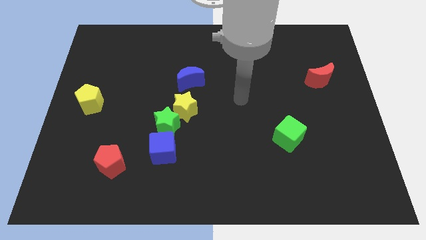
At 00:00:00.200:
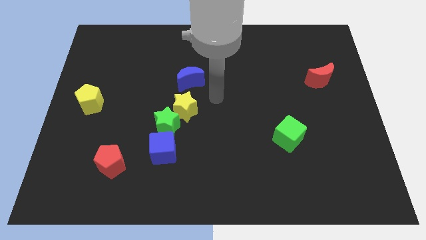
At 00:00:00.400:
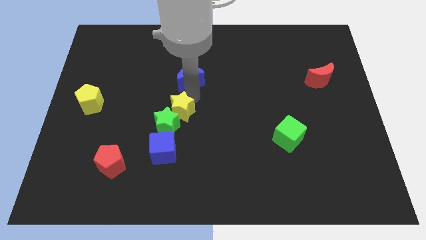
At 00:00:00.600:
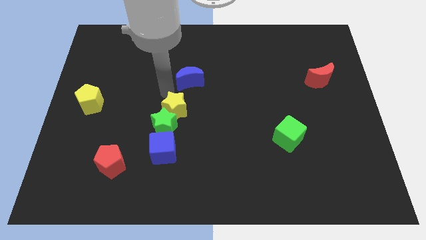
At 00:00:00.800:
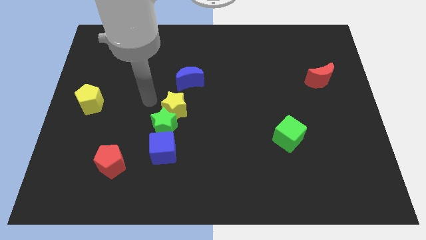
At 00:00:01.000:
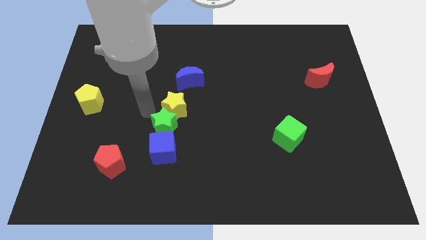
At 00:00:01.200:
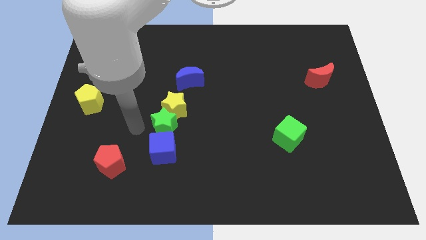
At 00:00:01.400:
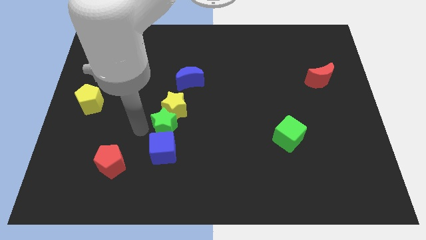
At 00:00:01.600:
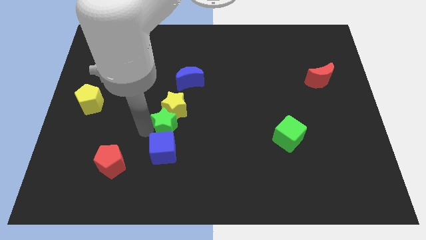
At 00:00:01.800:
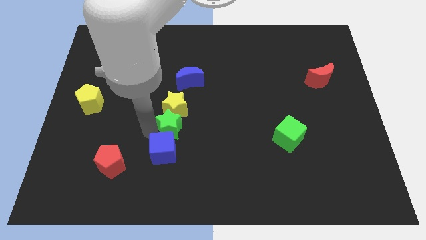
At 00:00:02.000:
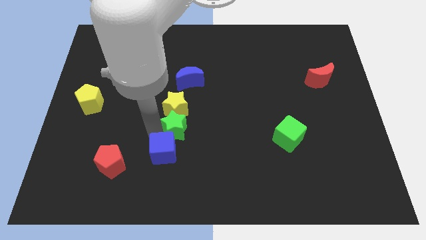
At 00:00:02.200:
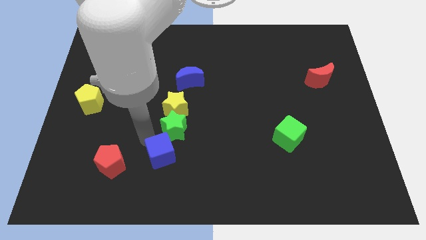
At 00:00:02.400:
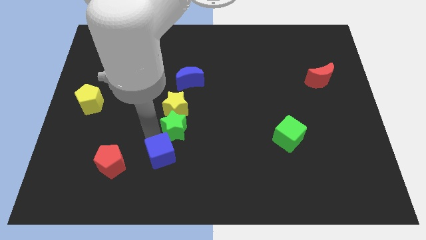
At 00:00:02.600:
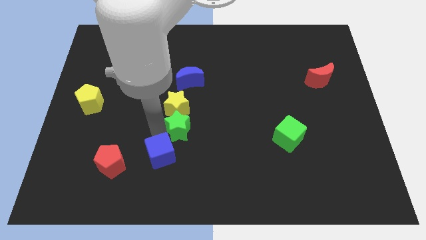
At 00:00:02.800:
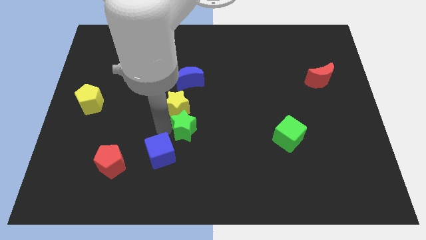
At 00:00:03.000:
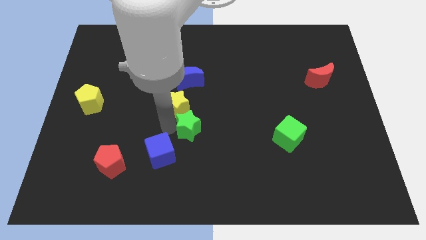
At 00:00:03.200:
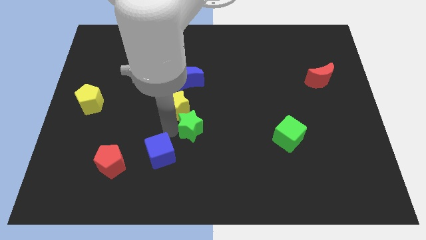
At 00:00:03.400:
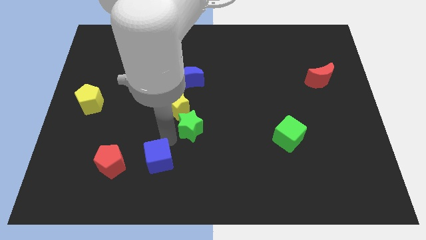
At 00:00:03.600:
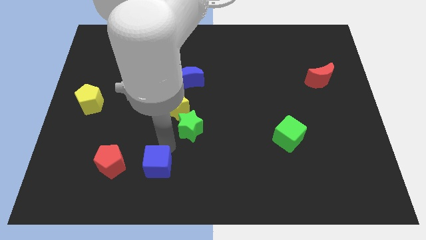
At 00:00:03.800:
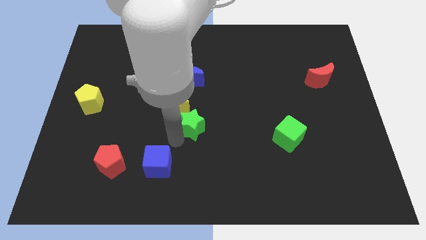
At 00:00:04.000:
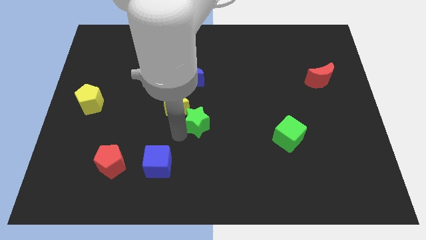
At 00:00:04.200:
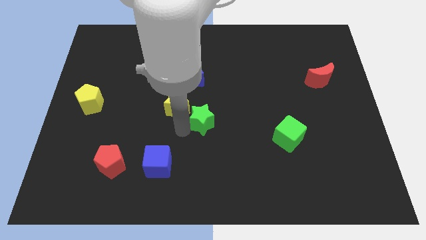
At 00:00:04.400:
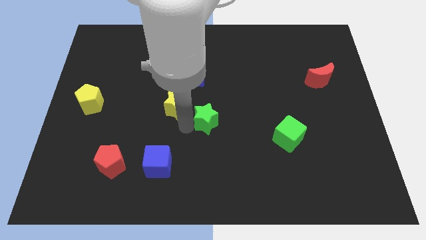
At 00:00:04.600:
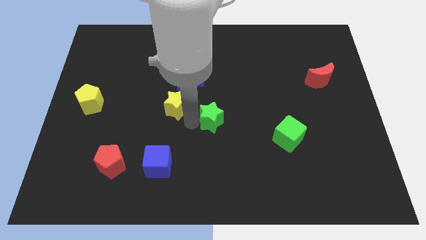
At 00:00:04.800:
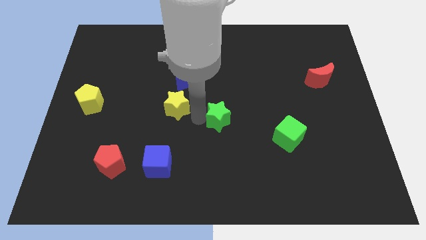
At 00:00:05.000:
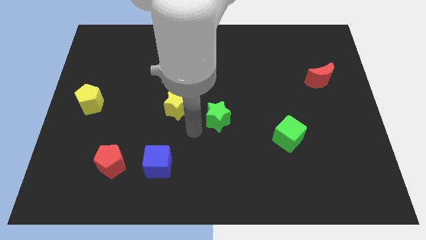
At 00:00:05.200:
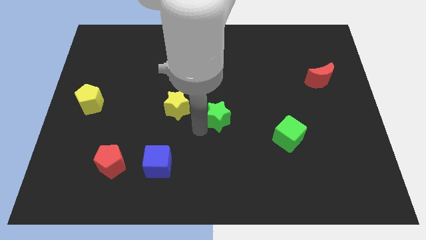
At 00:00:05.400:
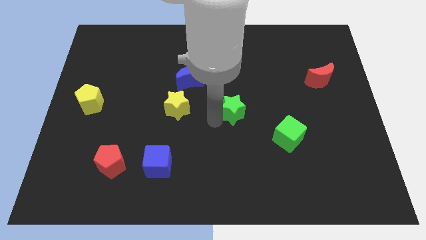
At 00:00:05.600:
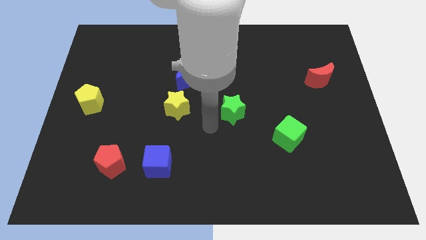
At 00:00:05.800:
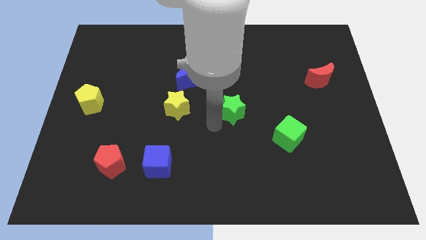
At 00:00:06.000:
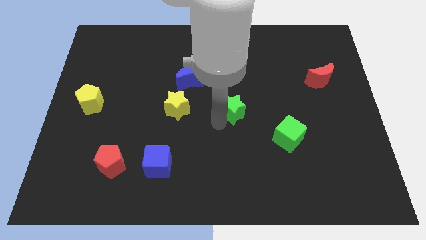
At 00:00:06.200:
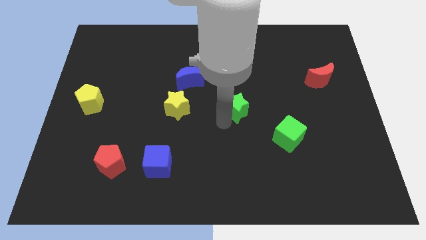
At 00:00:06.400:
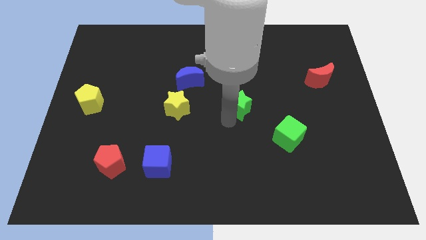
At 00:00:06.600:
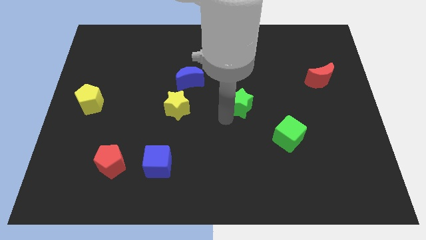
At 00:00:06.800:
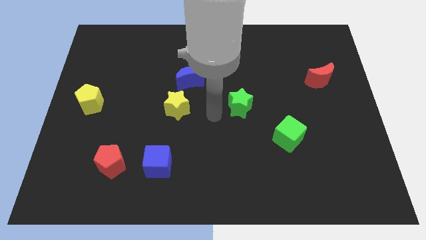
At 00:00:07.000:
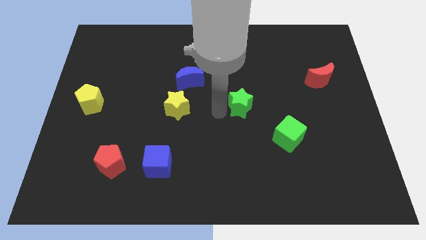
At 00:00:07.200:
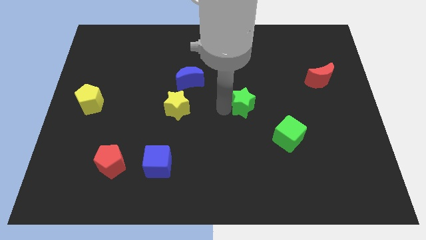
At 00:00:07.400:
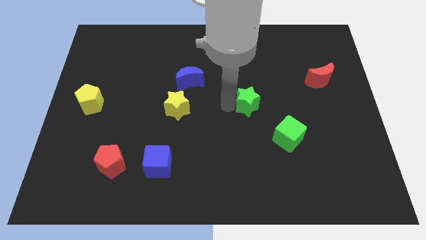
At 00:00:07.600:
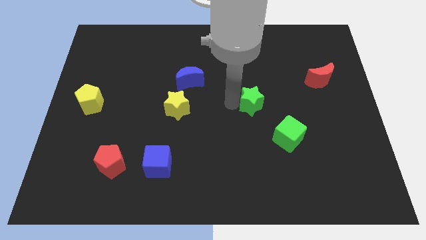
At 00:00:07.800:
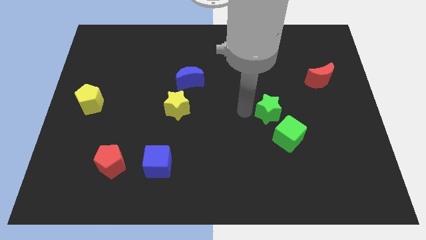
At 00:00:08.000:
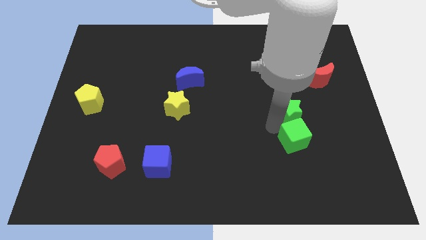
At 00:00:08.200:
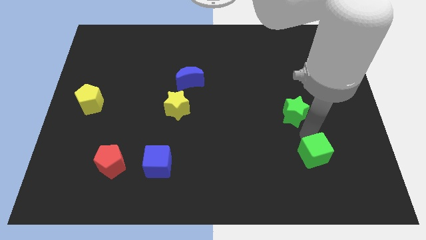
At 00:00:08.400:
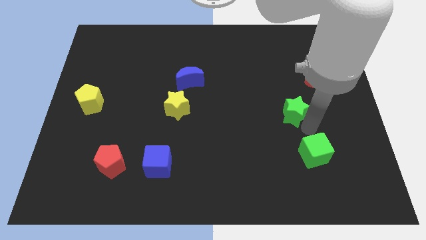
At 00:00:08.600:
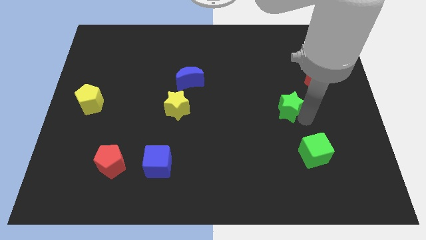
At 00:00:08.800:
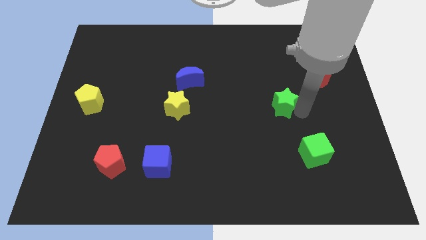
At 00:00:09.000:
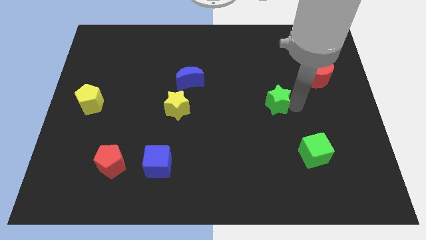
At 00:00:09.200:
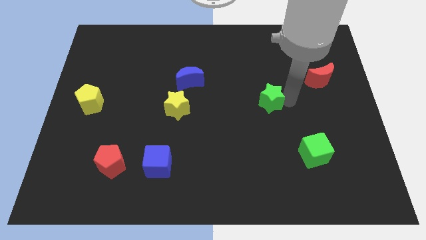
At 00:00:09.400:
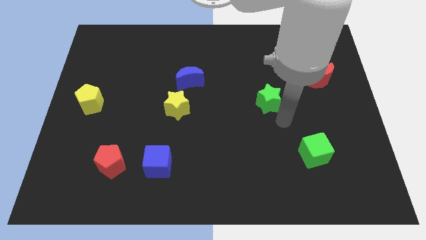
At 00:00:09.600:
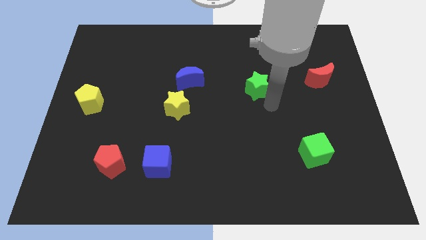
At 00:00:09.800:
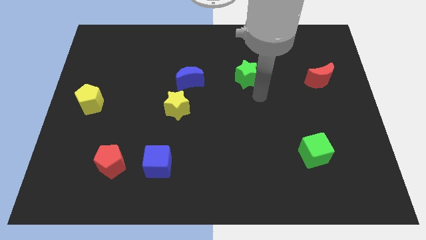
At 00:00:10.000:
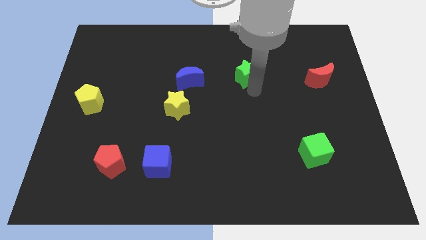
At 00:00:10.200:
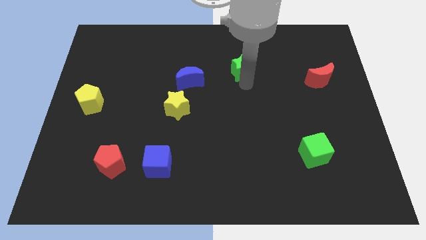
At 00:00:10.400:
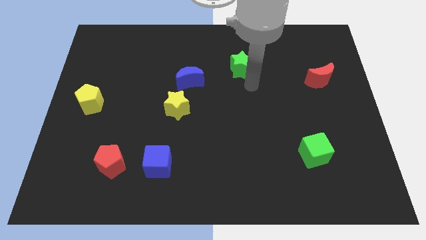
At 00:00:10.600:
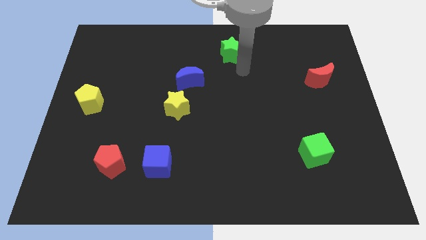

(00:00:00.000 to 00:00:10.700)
push the green star to the towards your base

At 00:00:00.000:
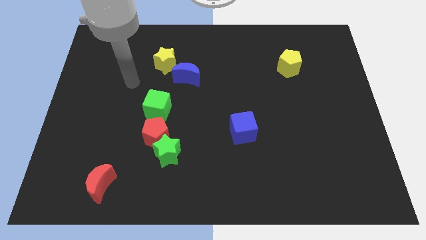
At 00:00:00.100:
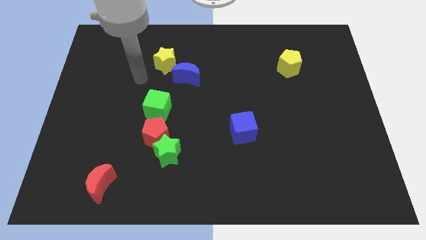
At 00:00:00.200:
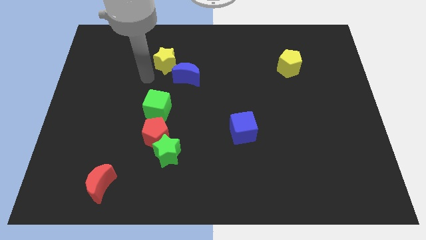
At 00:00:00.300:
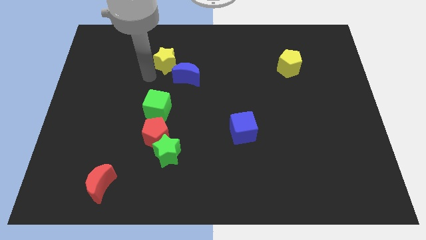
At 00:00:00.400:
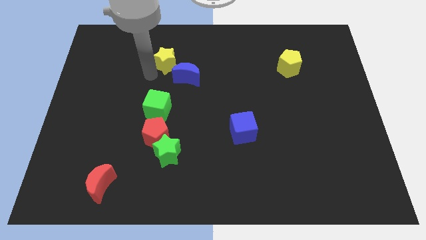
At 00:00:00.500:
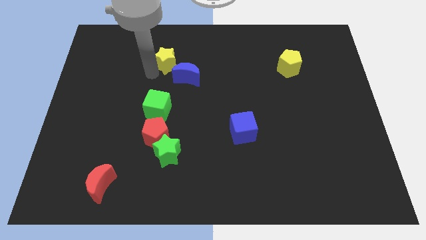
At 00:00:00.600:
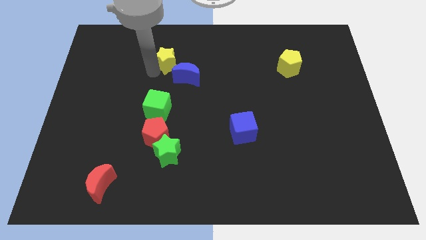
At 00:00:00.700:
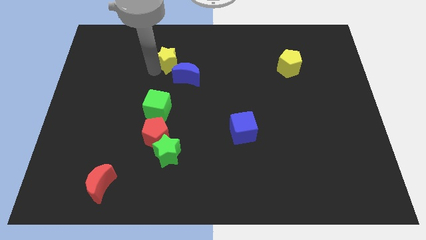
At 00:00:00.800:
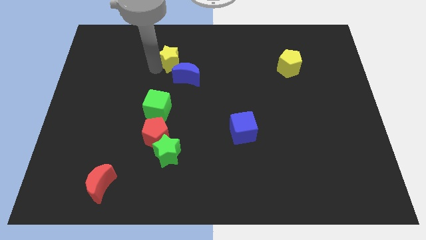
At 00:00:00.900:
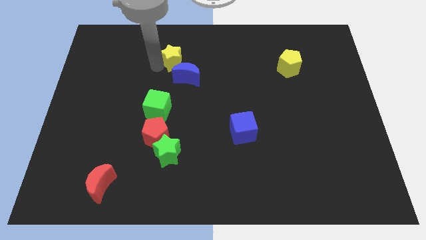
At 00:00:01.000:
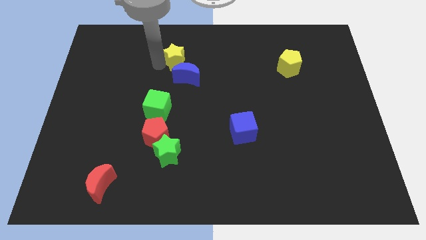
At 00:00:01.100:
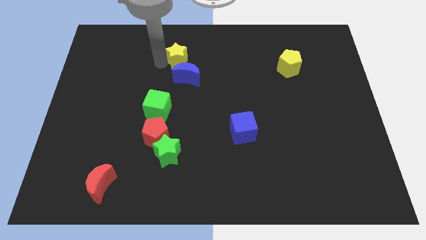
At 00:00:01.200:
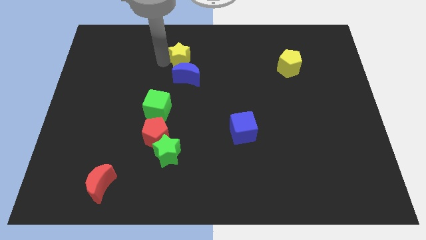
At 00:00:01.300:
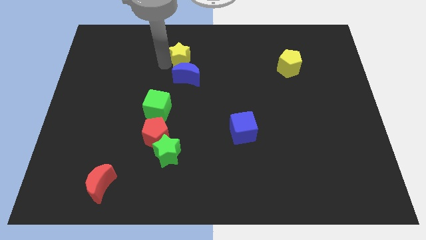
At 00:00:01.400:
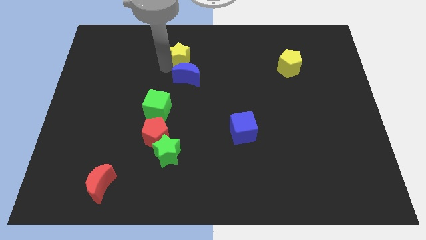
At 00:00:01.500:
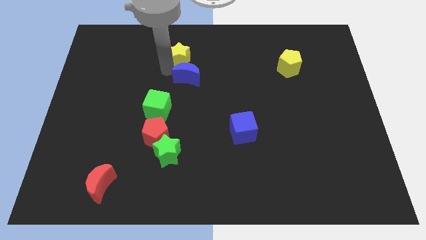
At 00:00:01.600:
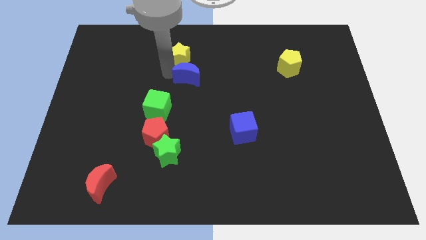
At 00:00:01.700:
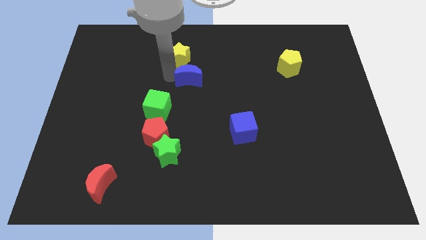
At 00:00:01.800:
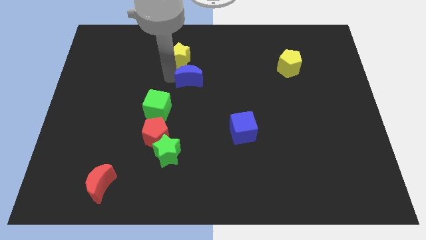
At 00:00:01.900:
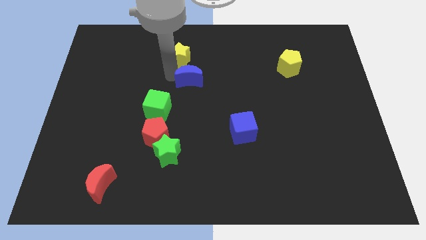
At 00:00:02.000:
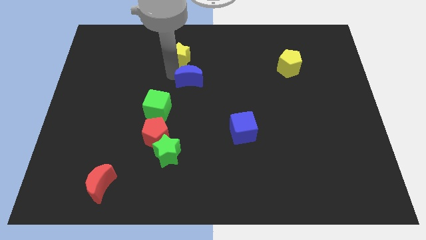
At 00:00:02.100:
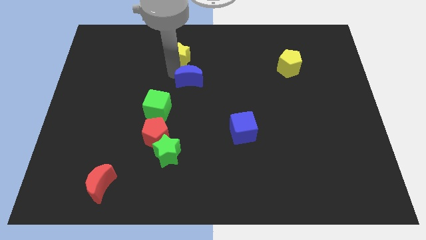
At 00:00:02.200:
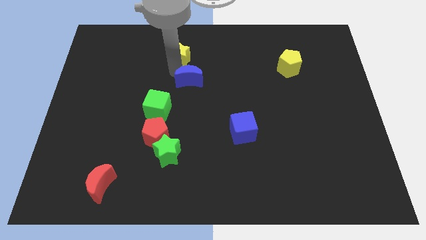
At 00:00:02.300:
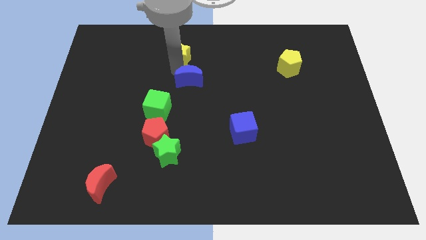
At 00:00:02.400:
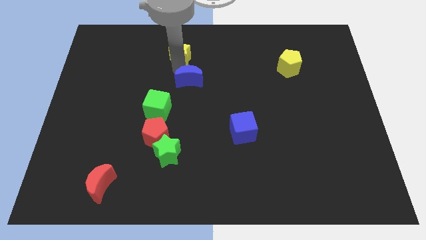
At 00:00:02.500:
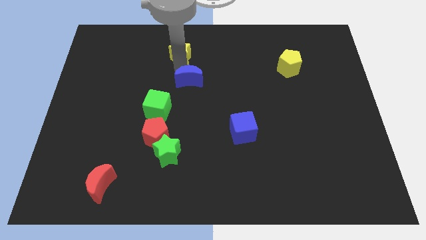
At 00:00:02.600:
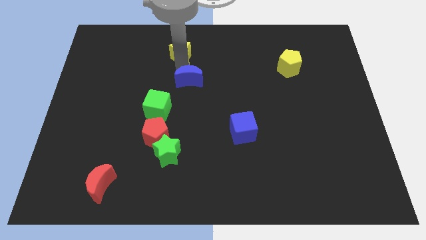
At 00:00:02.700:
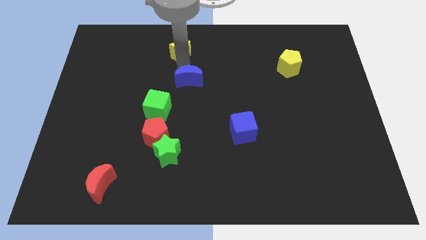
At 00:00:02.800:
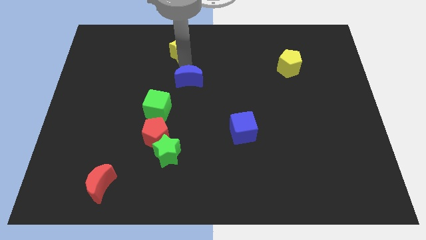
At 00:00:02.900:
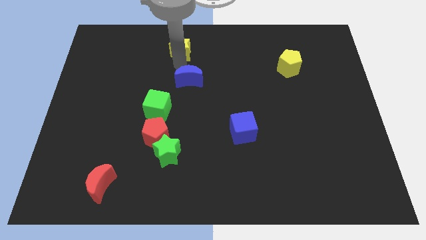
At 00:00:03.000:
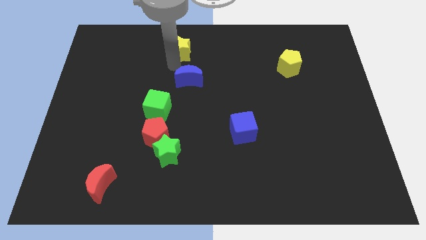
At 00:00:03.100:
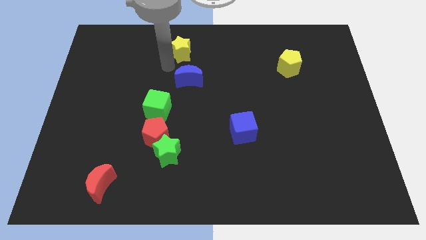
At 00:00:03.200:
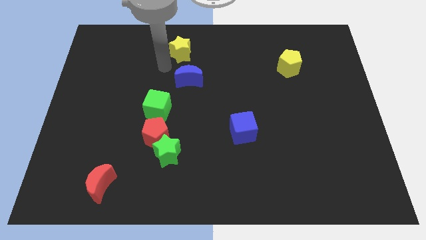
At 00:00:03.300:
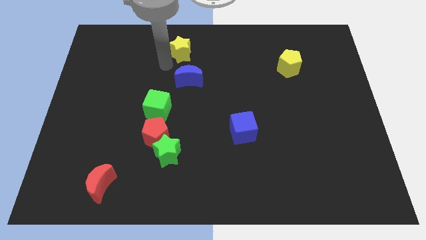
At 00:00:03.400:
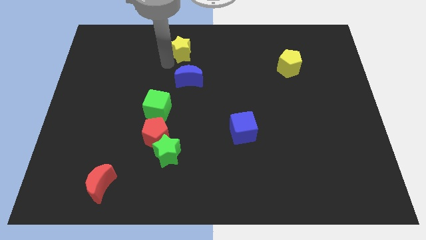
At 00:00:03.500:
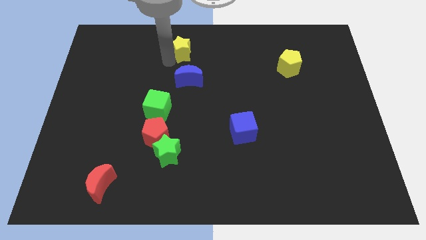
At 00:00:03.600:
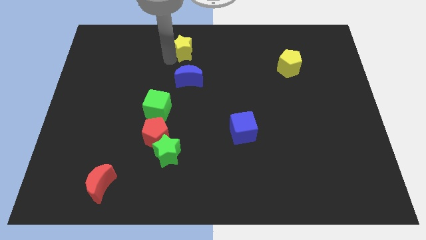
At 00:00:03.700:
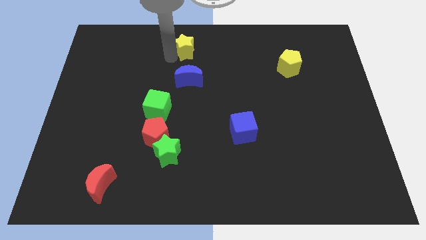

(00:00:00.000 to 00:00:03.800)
push the yellow star to the top
